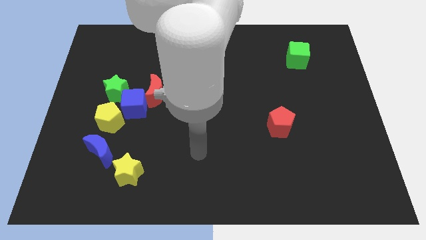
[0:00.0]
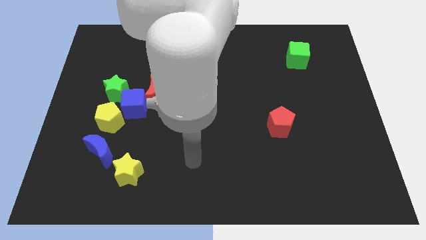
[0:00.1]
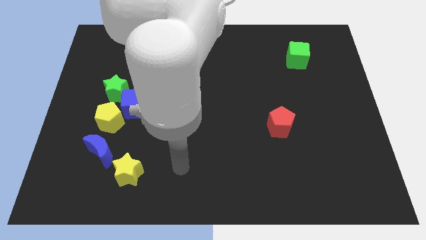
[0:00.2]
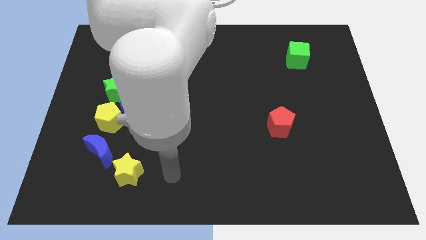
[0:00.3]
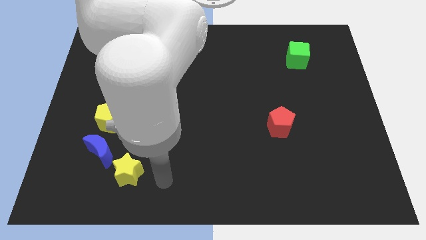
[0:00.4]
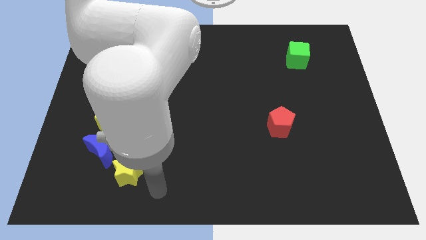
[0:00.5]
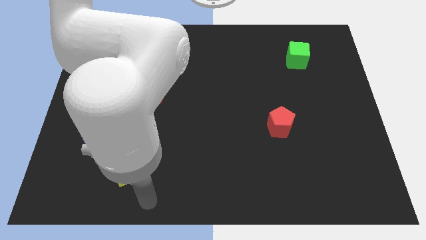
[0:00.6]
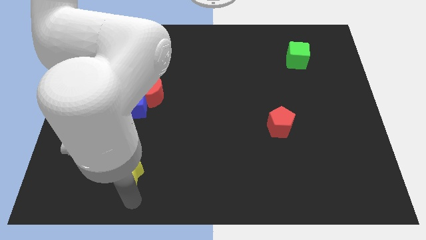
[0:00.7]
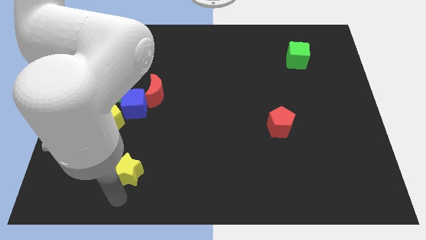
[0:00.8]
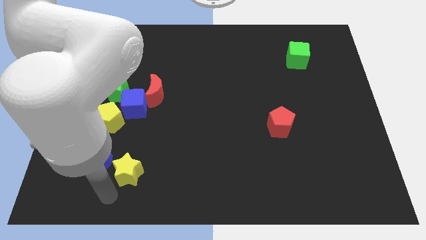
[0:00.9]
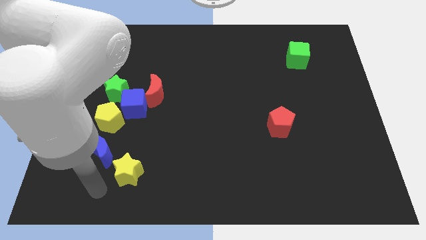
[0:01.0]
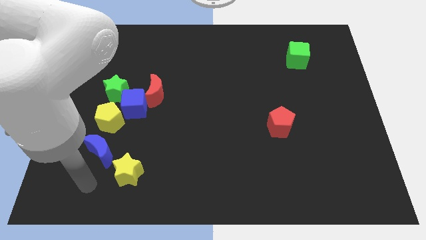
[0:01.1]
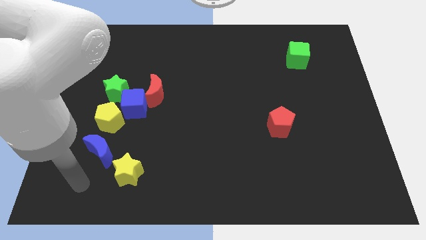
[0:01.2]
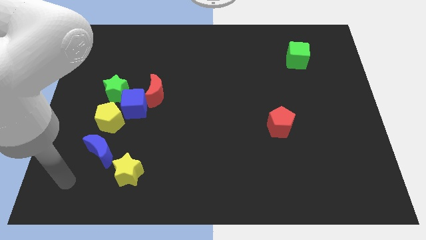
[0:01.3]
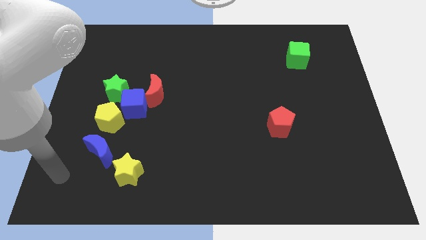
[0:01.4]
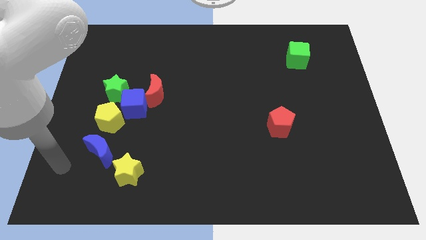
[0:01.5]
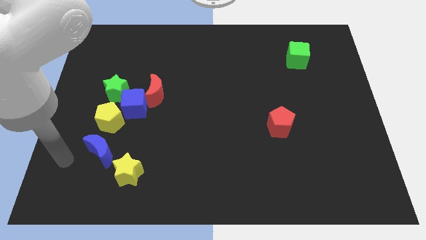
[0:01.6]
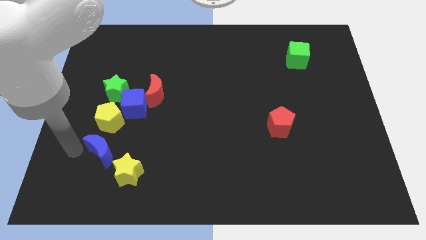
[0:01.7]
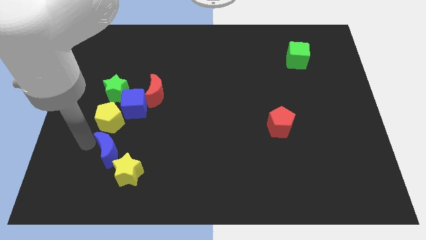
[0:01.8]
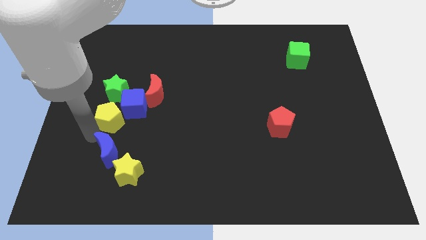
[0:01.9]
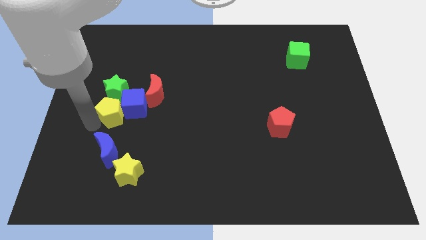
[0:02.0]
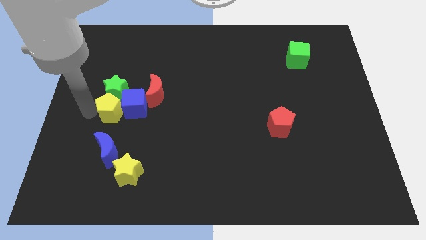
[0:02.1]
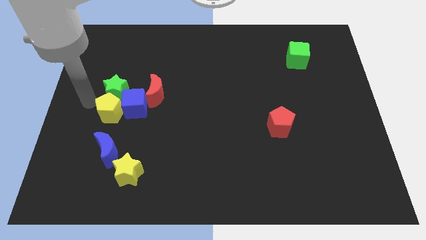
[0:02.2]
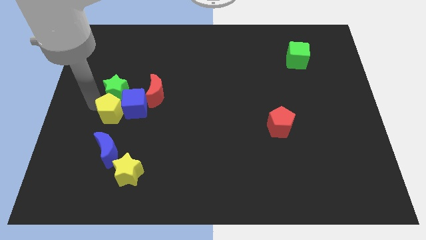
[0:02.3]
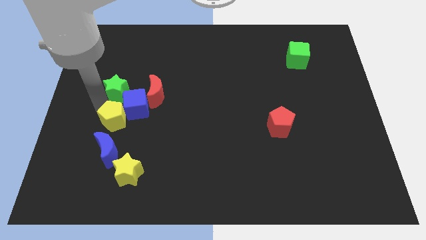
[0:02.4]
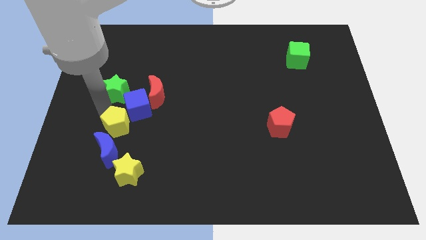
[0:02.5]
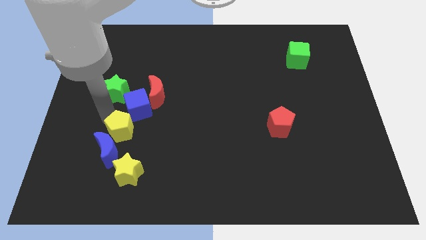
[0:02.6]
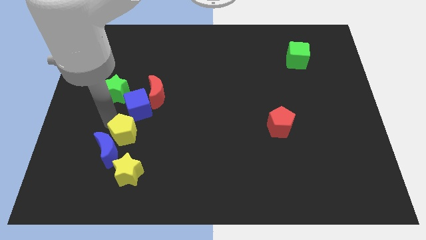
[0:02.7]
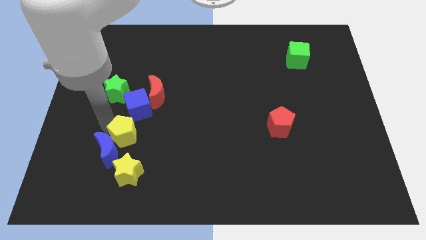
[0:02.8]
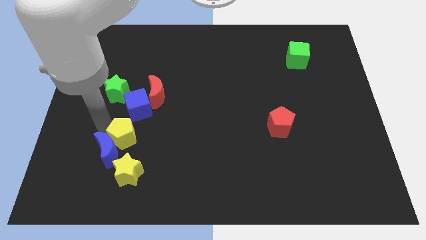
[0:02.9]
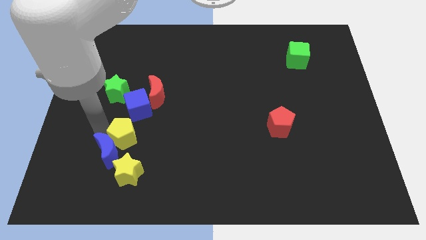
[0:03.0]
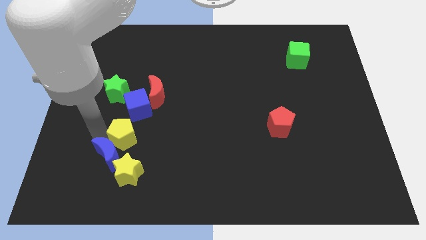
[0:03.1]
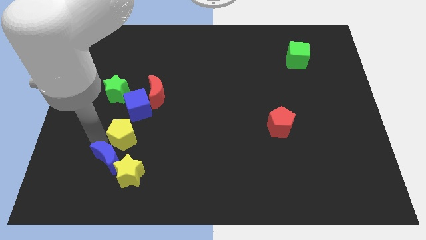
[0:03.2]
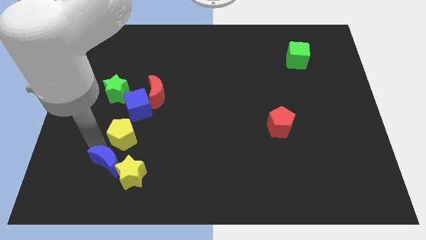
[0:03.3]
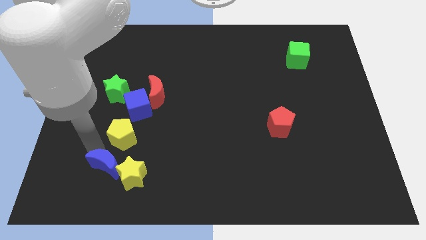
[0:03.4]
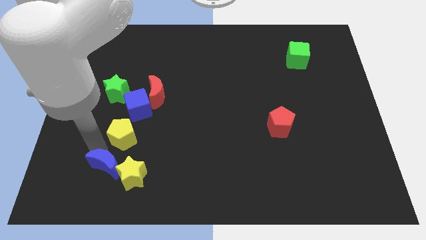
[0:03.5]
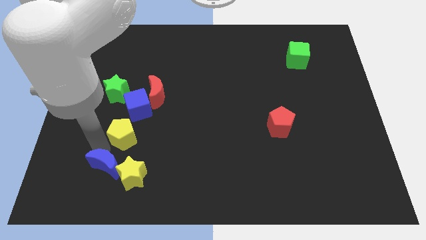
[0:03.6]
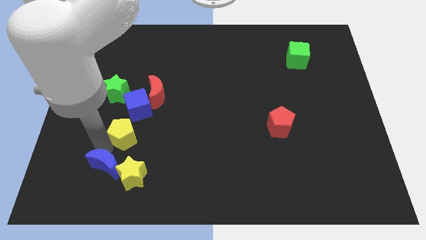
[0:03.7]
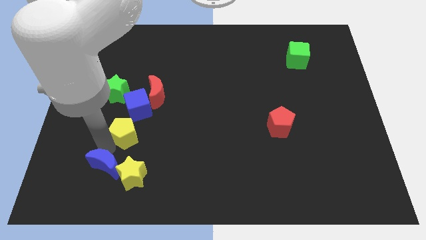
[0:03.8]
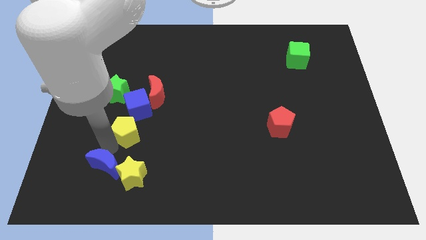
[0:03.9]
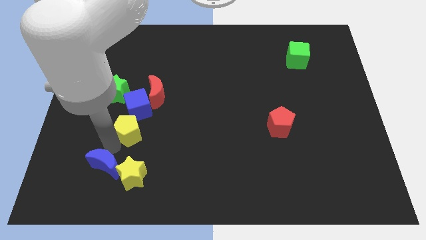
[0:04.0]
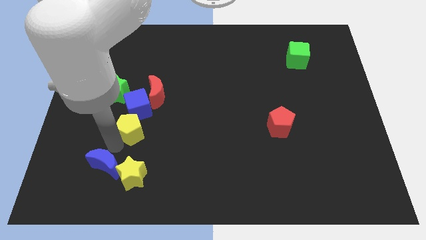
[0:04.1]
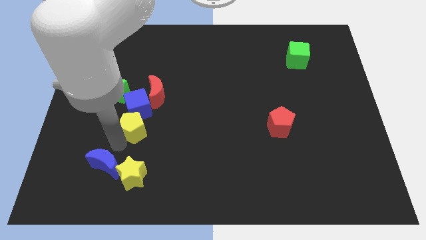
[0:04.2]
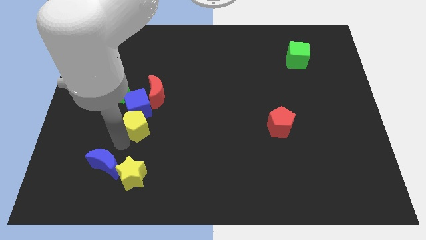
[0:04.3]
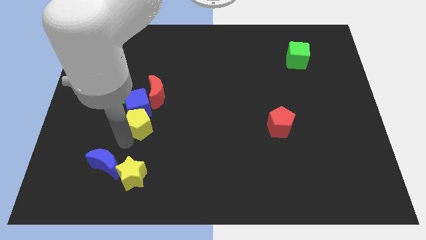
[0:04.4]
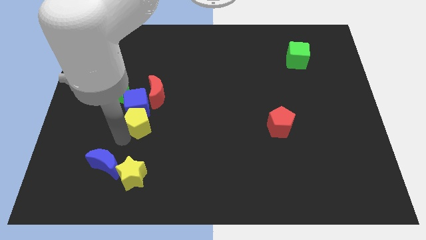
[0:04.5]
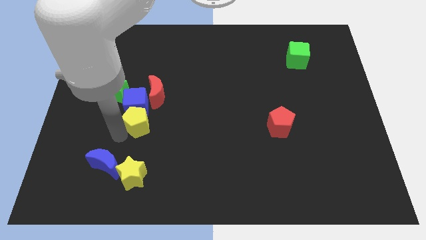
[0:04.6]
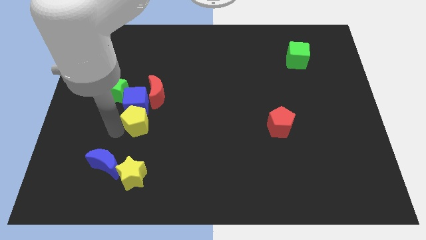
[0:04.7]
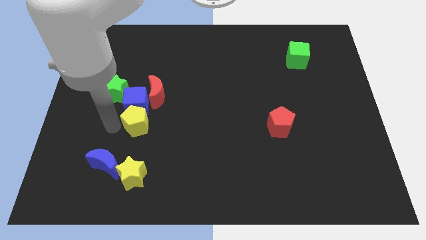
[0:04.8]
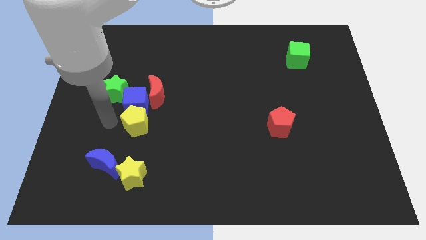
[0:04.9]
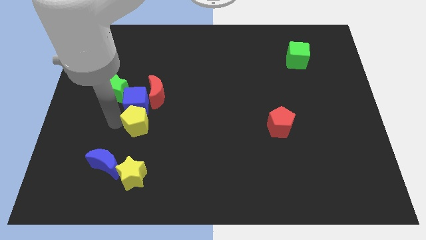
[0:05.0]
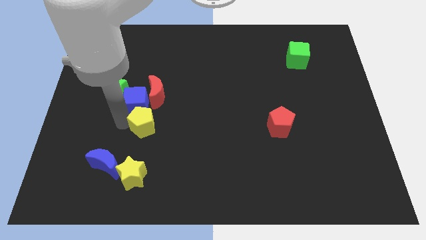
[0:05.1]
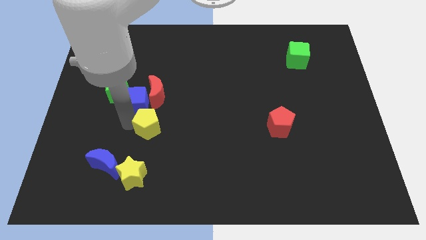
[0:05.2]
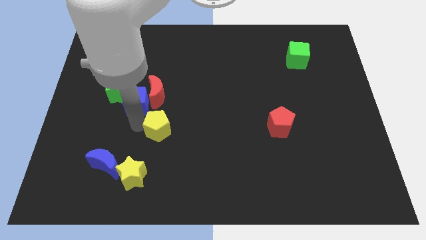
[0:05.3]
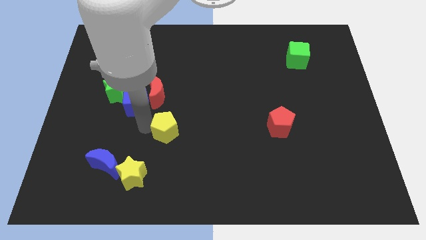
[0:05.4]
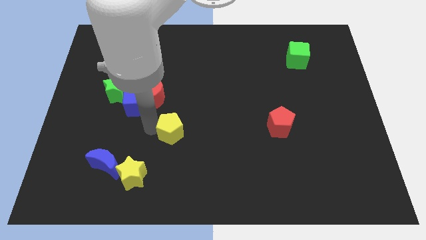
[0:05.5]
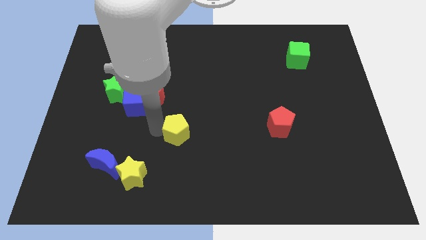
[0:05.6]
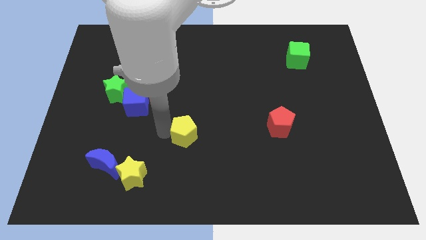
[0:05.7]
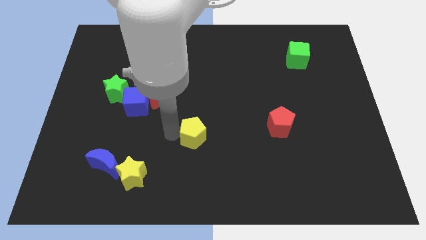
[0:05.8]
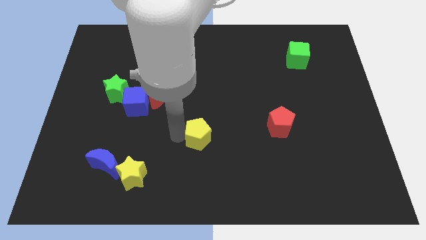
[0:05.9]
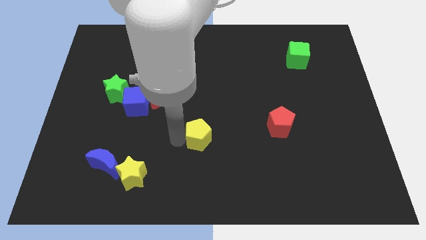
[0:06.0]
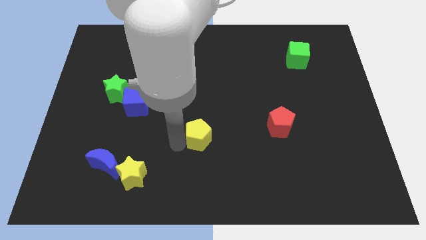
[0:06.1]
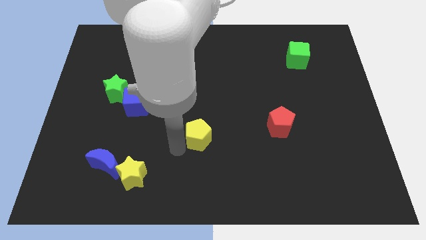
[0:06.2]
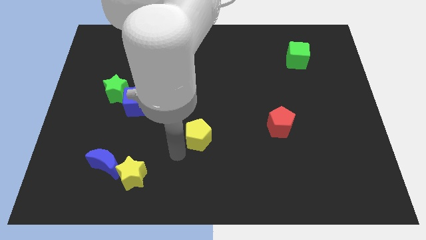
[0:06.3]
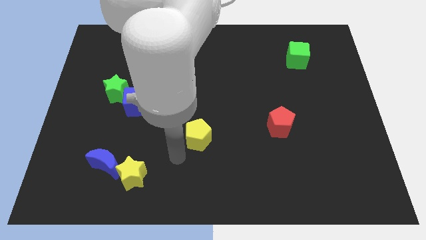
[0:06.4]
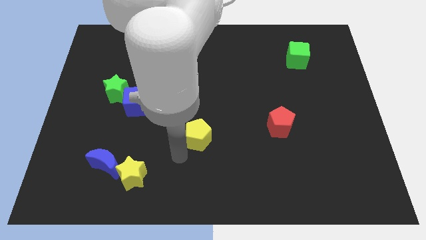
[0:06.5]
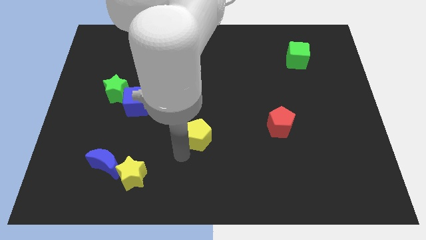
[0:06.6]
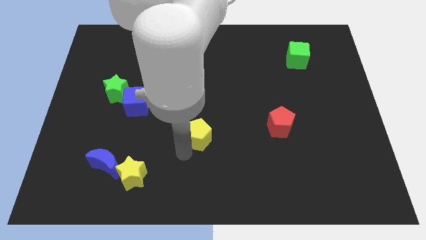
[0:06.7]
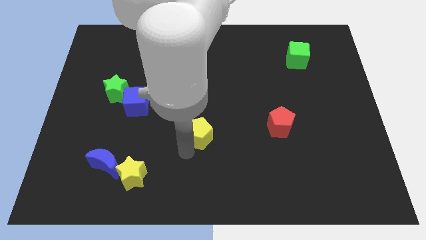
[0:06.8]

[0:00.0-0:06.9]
slide the yellow pentagon right

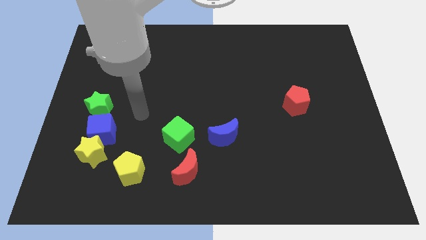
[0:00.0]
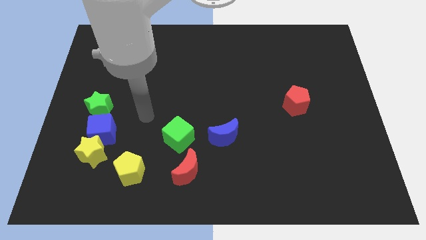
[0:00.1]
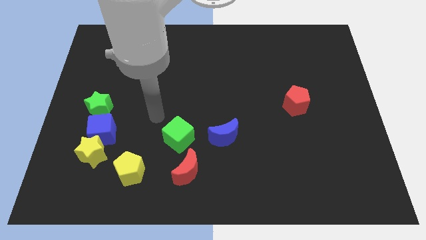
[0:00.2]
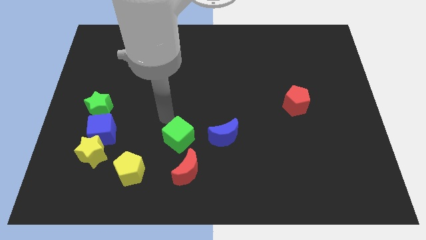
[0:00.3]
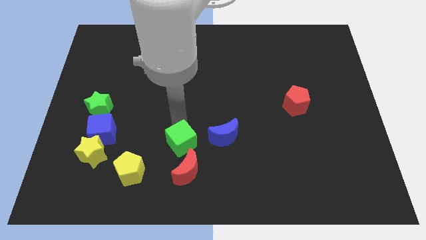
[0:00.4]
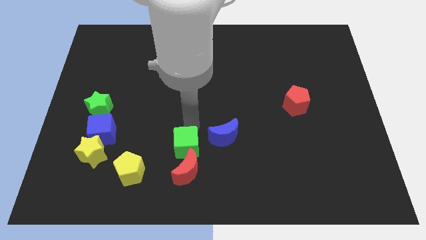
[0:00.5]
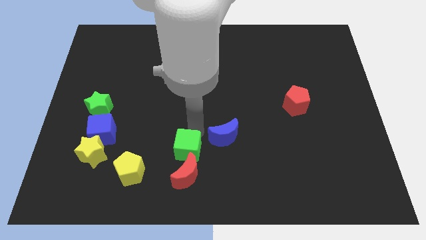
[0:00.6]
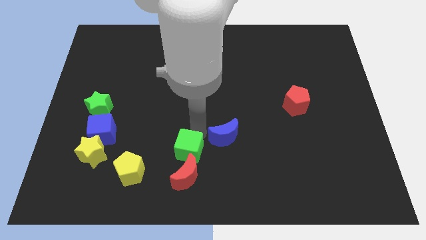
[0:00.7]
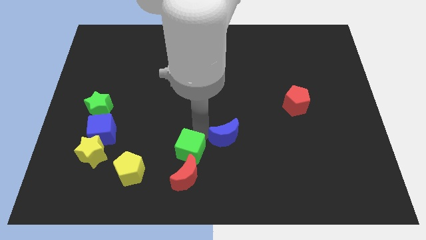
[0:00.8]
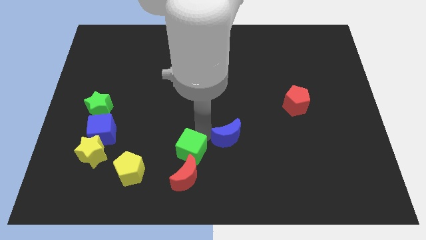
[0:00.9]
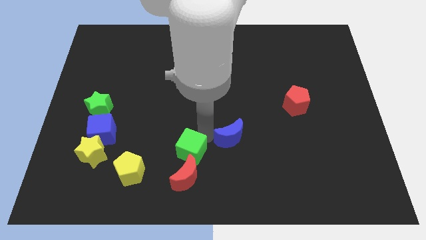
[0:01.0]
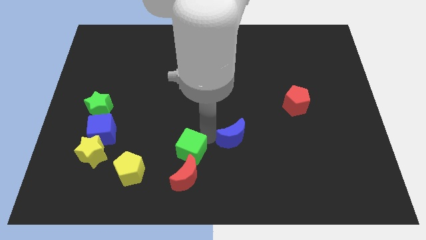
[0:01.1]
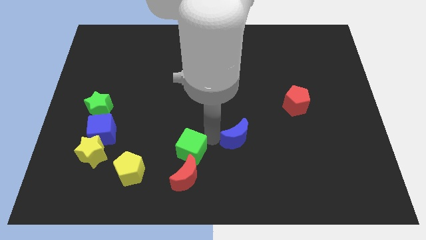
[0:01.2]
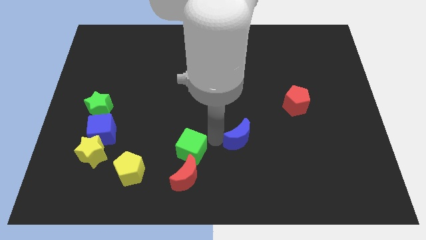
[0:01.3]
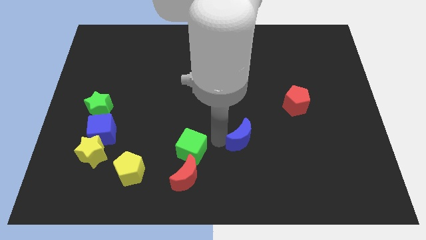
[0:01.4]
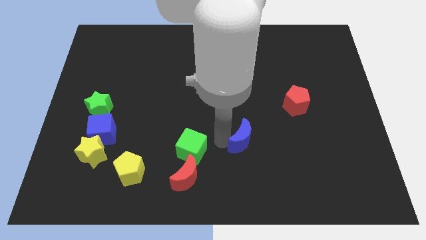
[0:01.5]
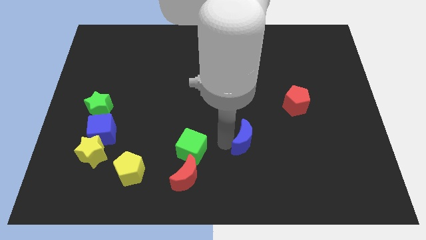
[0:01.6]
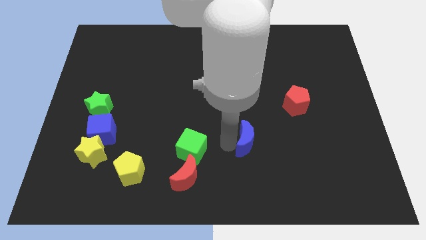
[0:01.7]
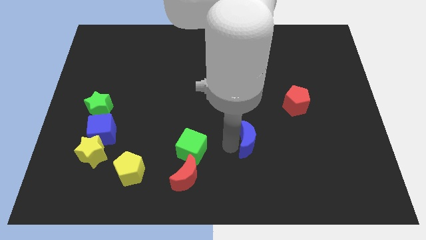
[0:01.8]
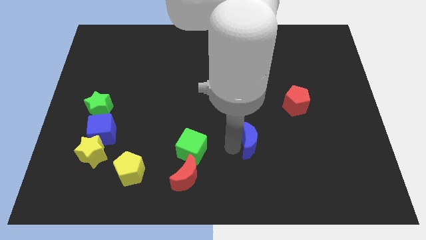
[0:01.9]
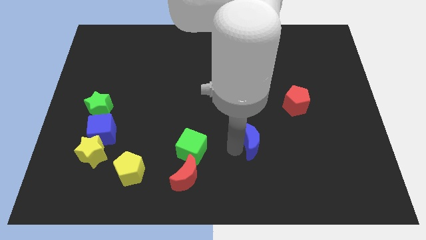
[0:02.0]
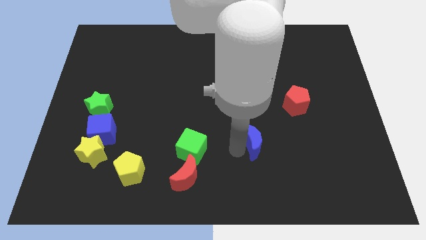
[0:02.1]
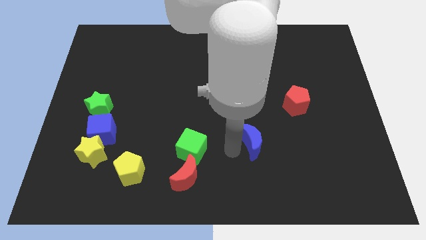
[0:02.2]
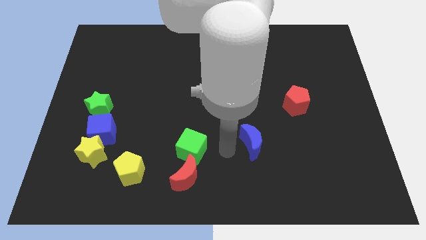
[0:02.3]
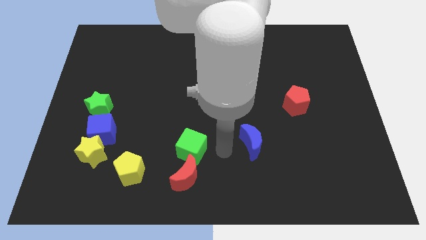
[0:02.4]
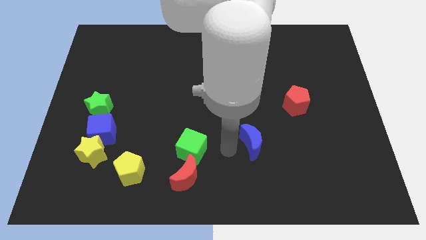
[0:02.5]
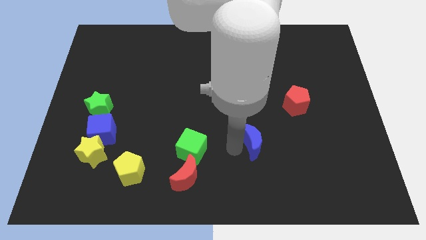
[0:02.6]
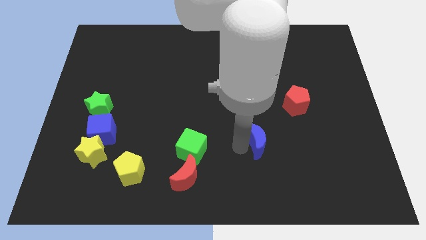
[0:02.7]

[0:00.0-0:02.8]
move the blue moon to the right a little
